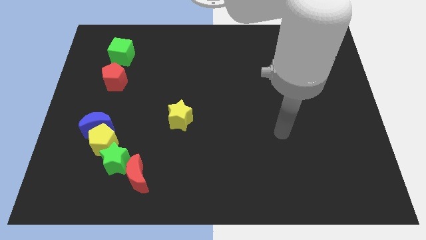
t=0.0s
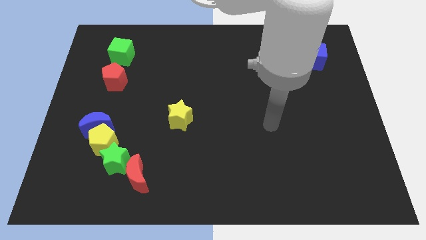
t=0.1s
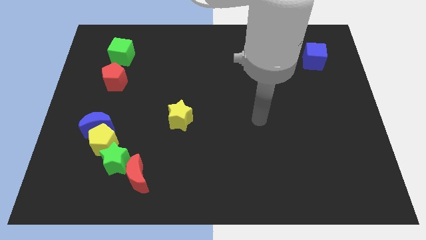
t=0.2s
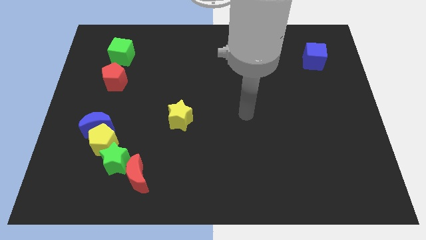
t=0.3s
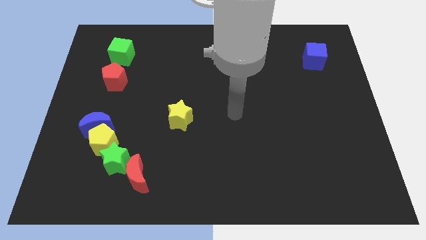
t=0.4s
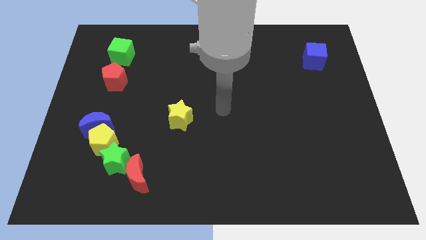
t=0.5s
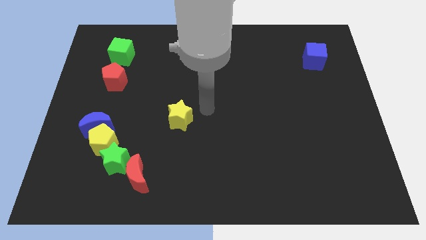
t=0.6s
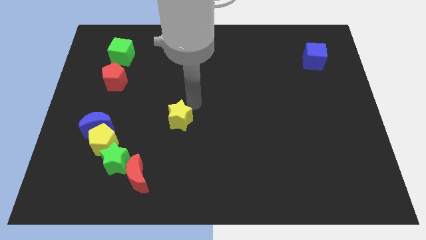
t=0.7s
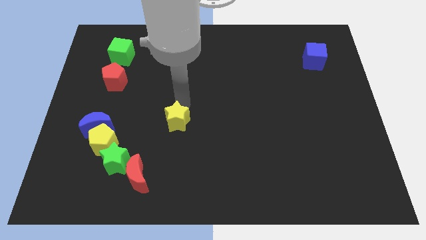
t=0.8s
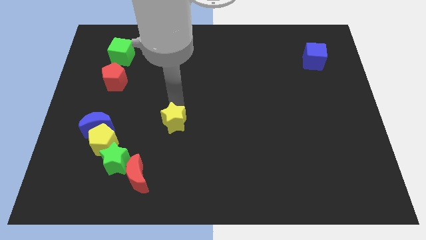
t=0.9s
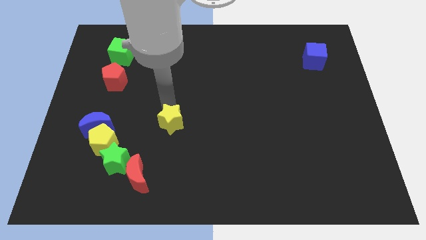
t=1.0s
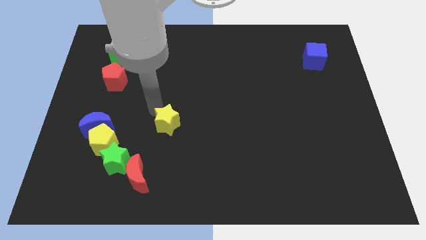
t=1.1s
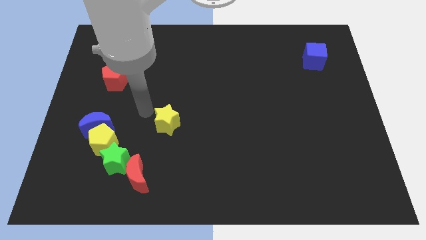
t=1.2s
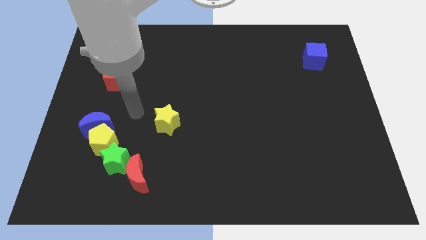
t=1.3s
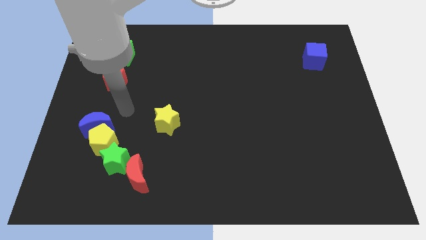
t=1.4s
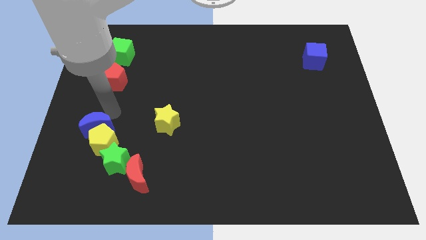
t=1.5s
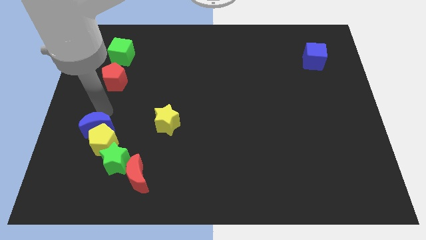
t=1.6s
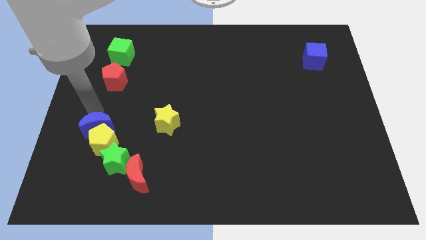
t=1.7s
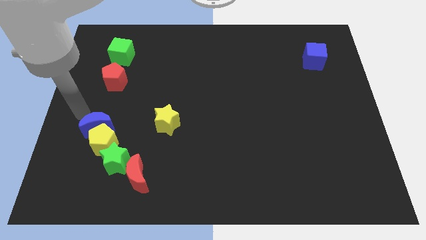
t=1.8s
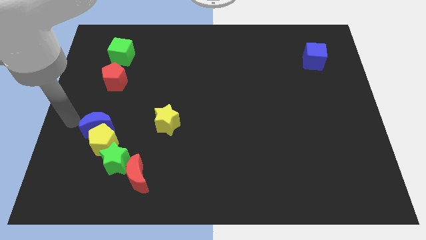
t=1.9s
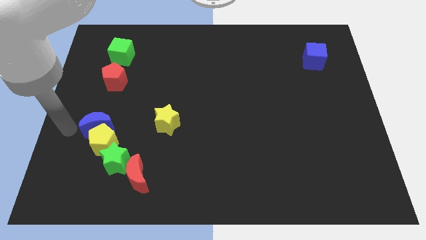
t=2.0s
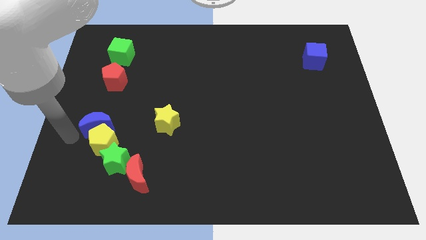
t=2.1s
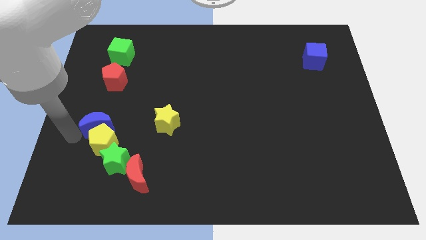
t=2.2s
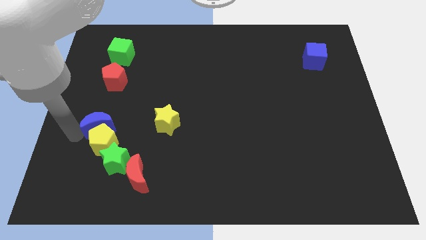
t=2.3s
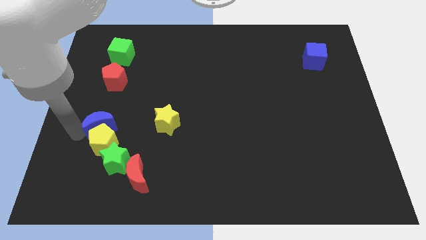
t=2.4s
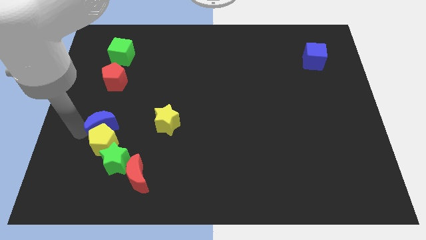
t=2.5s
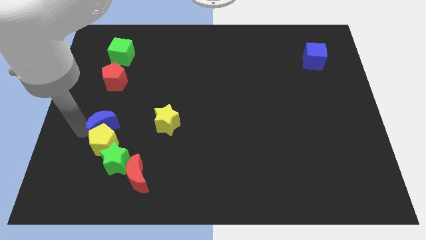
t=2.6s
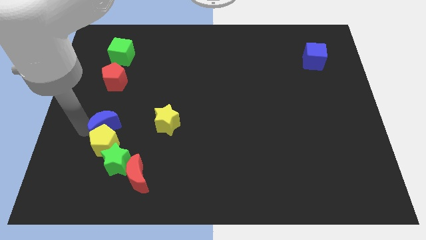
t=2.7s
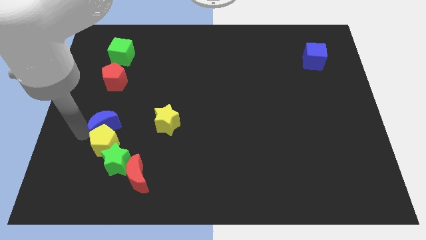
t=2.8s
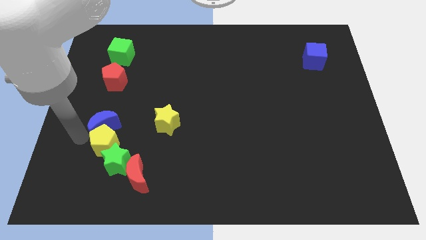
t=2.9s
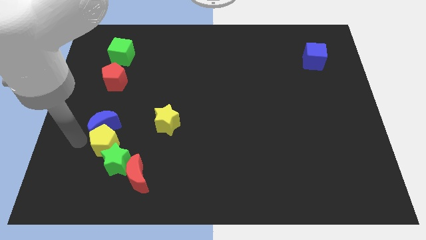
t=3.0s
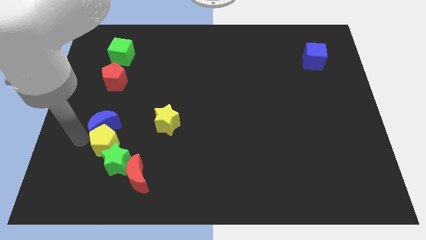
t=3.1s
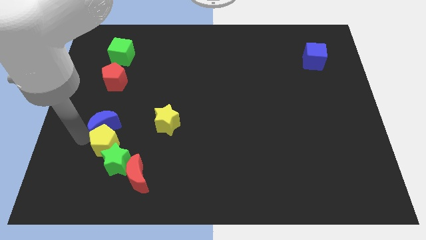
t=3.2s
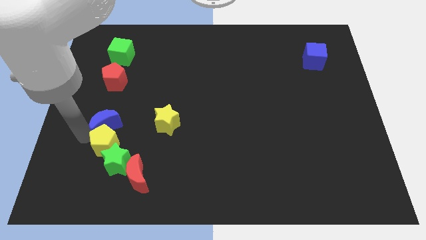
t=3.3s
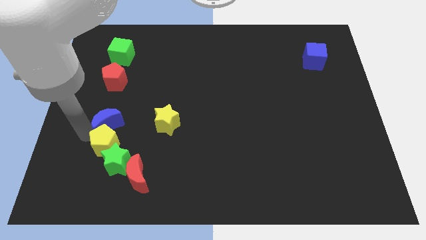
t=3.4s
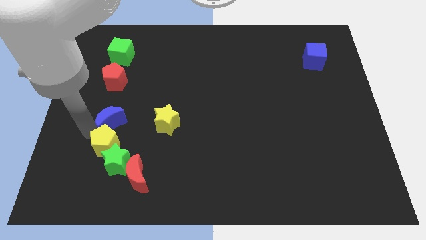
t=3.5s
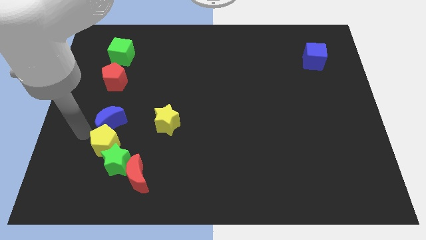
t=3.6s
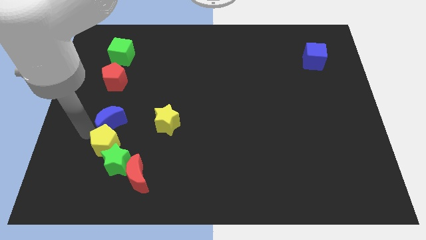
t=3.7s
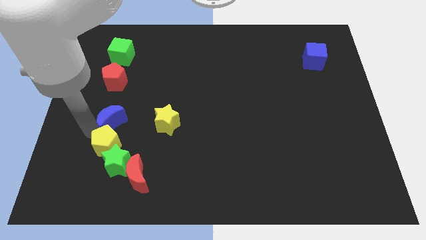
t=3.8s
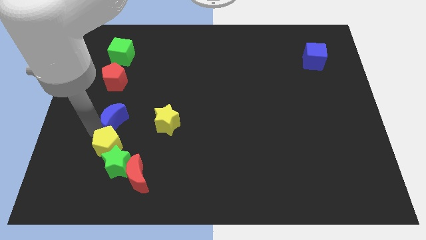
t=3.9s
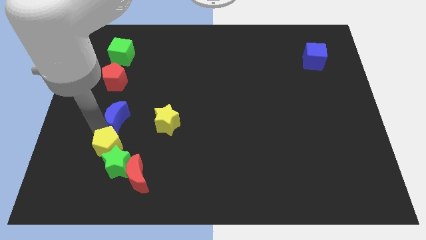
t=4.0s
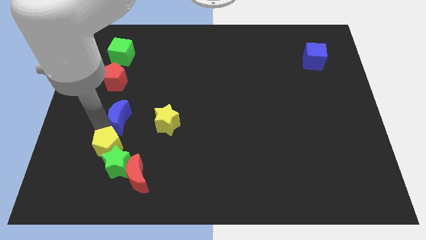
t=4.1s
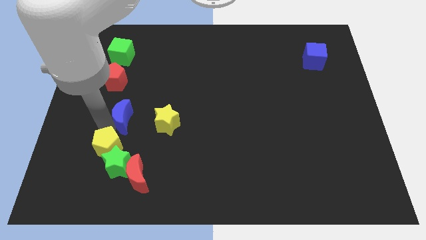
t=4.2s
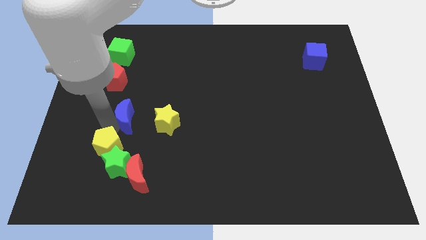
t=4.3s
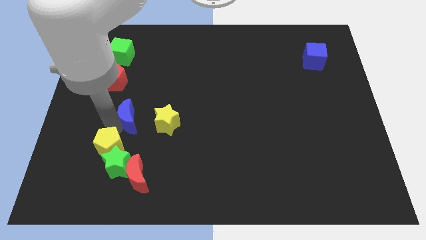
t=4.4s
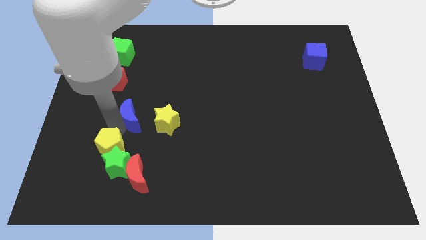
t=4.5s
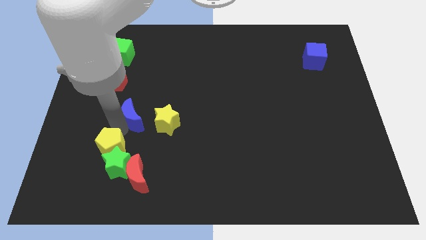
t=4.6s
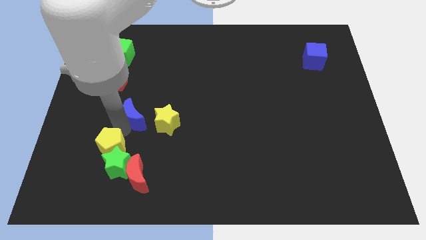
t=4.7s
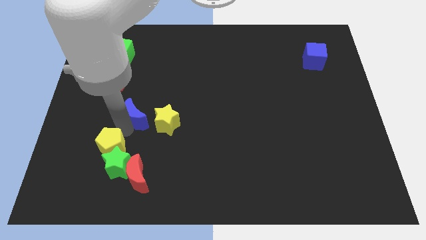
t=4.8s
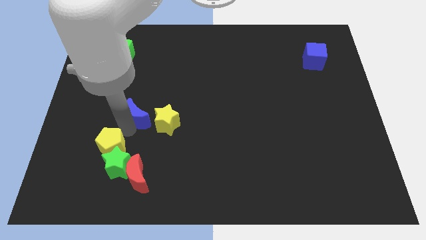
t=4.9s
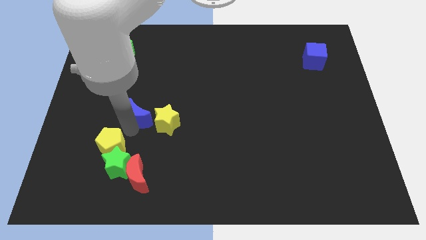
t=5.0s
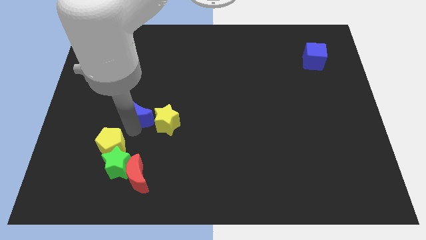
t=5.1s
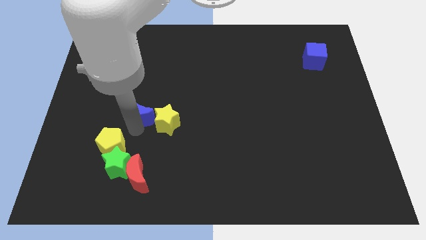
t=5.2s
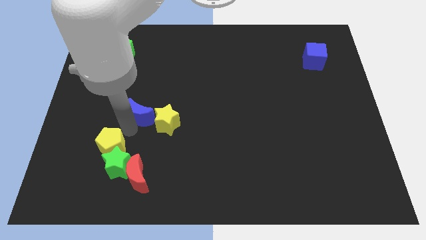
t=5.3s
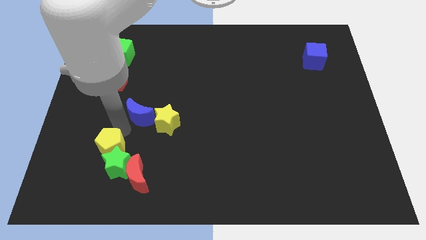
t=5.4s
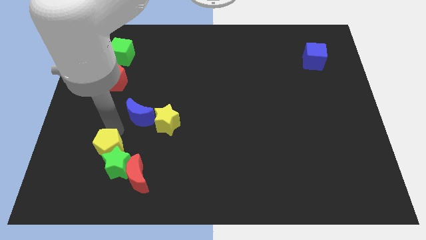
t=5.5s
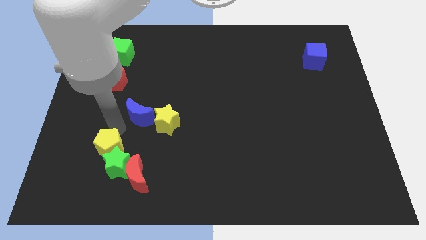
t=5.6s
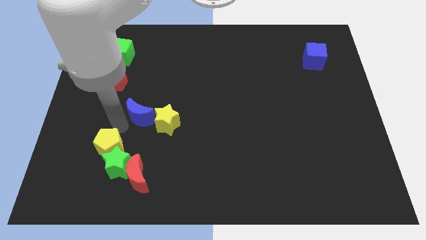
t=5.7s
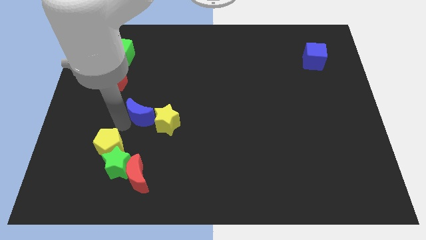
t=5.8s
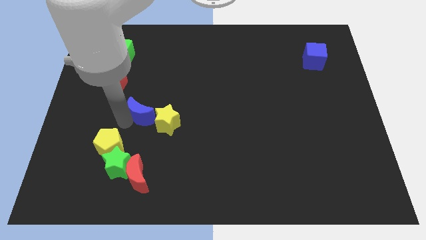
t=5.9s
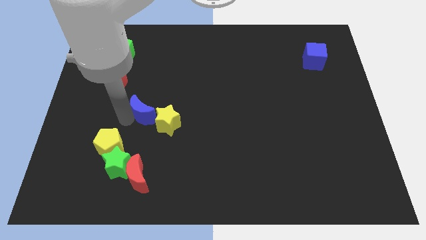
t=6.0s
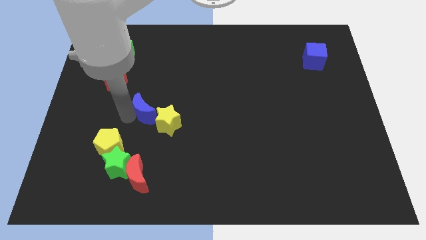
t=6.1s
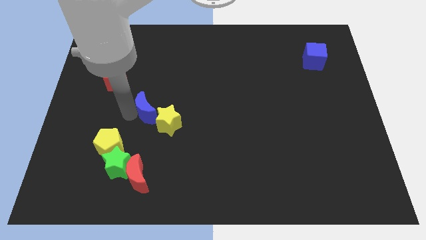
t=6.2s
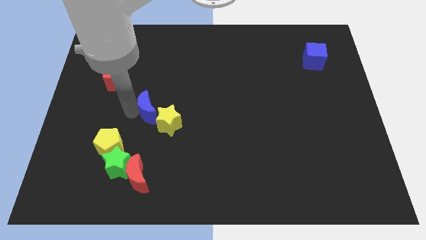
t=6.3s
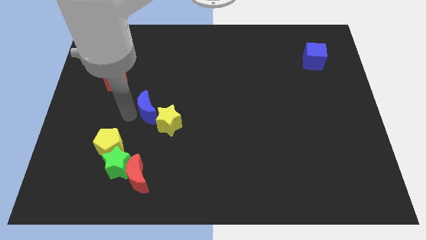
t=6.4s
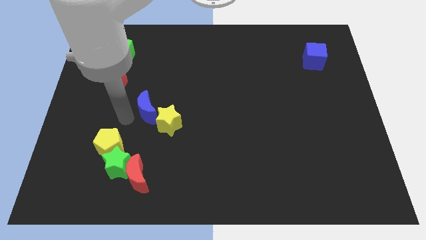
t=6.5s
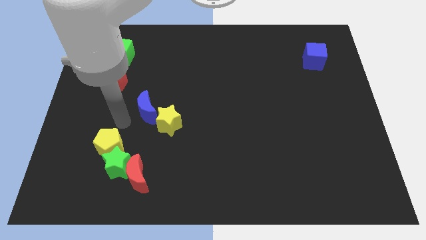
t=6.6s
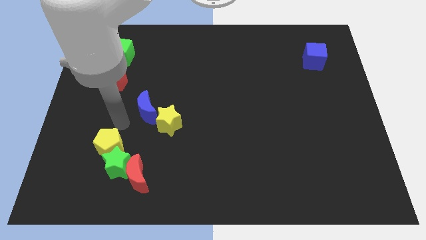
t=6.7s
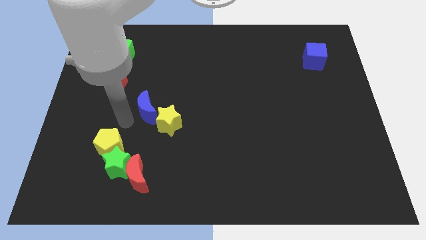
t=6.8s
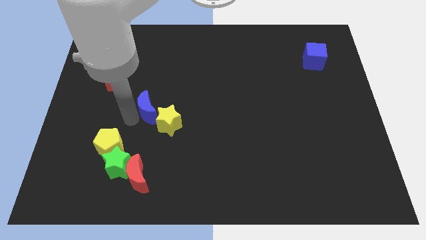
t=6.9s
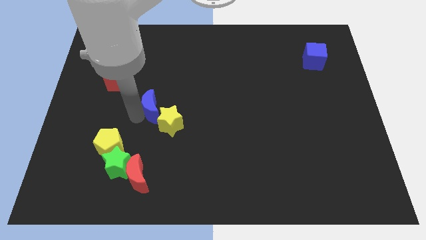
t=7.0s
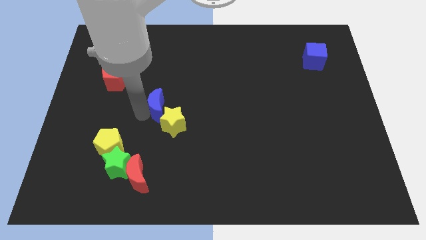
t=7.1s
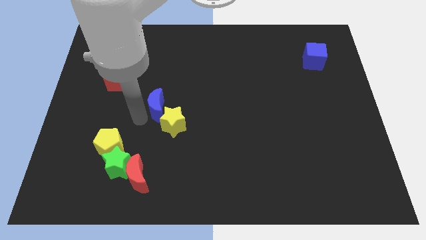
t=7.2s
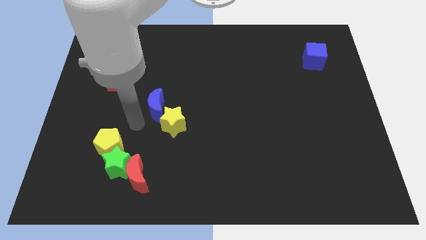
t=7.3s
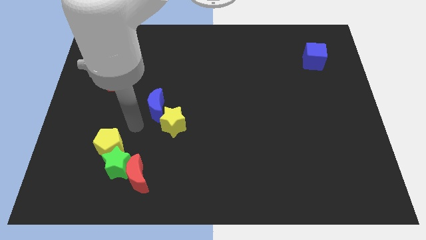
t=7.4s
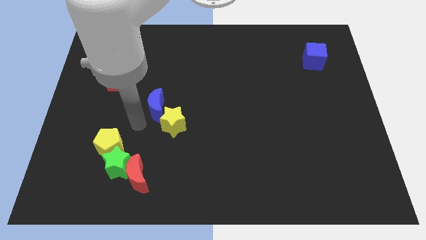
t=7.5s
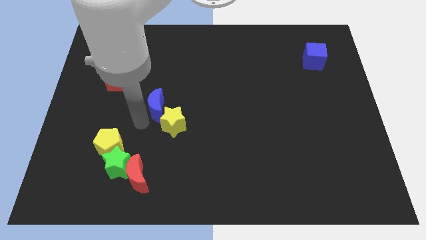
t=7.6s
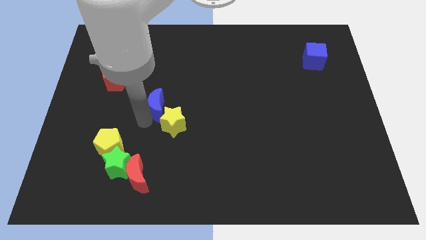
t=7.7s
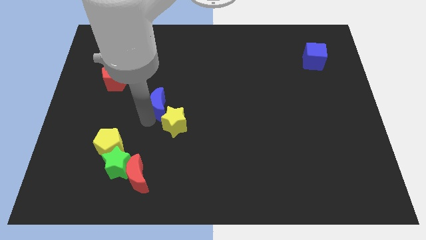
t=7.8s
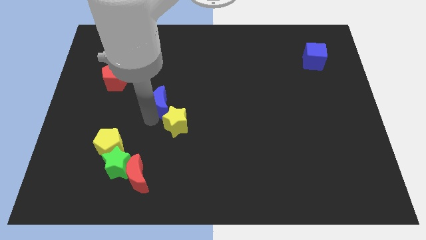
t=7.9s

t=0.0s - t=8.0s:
put the blue moon to the center
